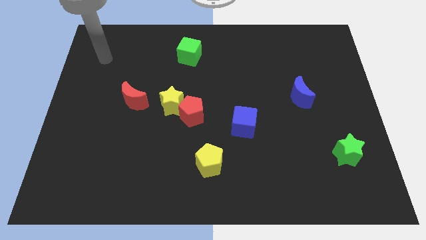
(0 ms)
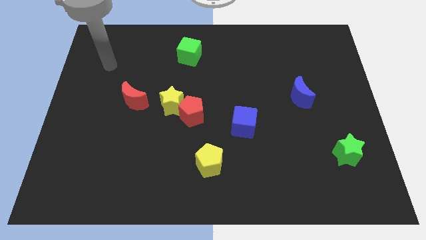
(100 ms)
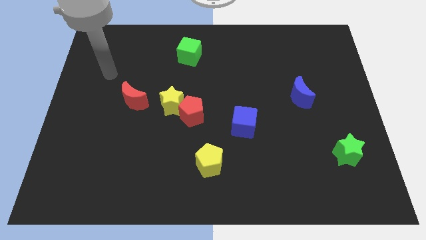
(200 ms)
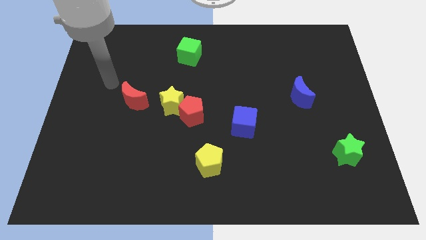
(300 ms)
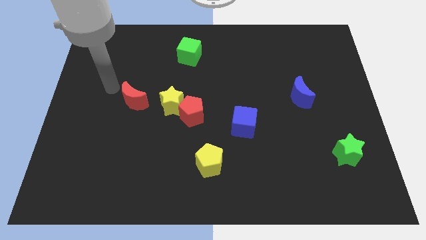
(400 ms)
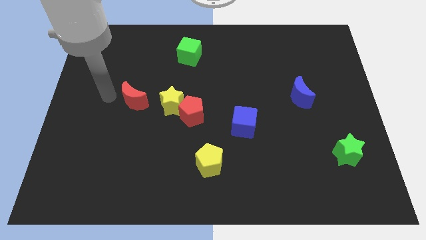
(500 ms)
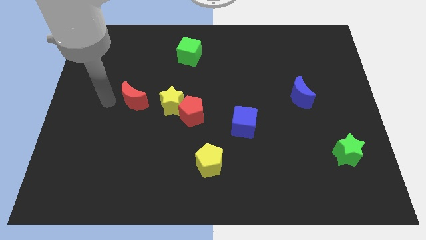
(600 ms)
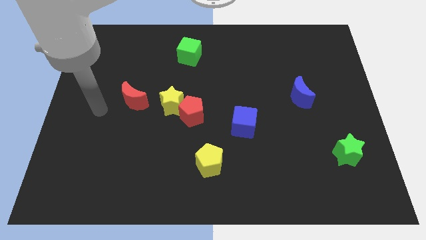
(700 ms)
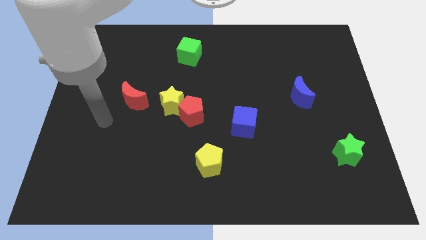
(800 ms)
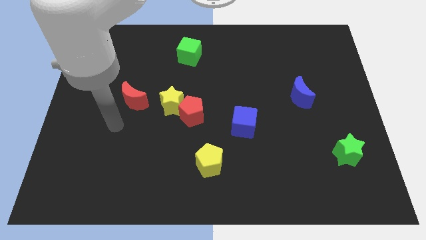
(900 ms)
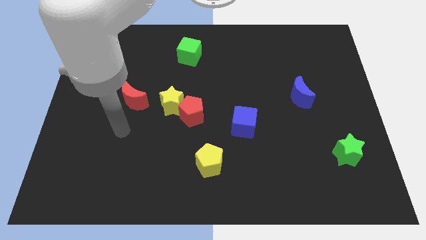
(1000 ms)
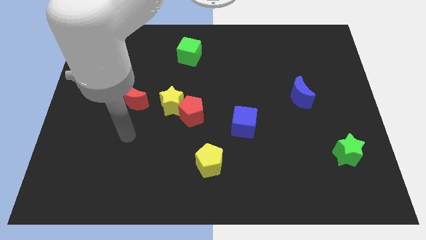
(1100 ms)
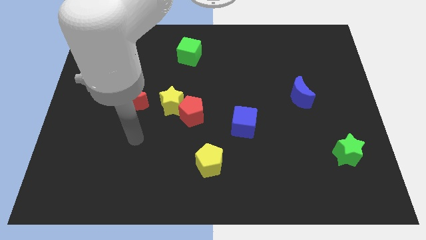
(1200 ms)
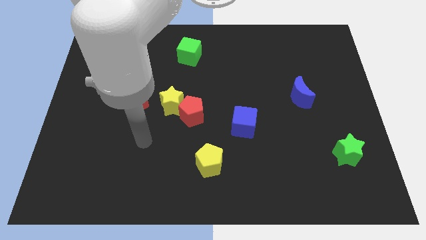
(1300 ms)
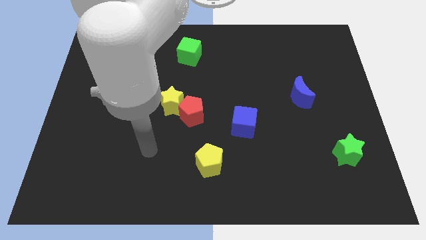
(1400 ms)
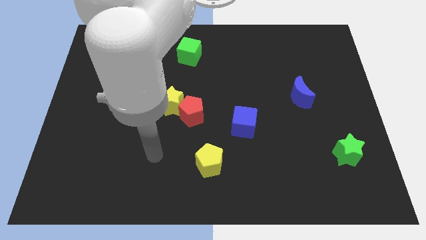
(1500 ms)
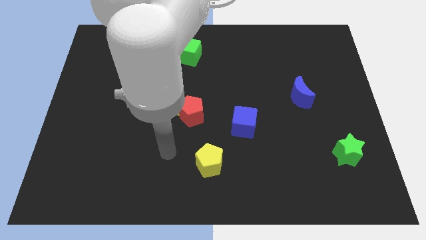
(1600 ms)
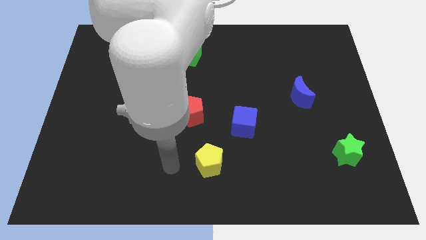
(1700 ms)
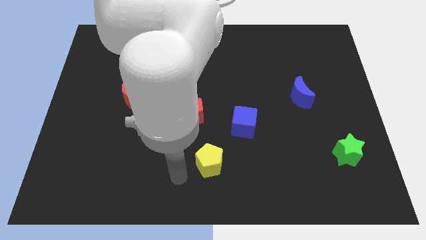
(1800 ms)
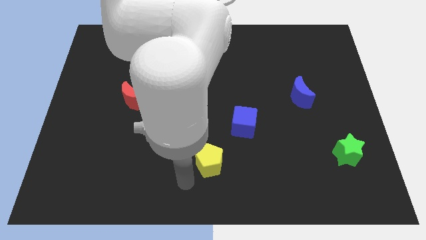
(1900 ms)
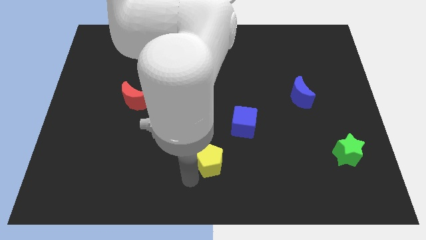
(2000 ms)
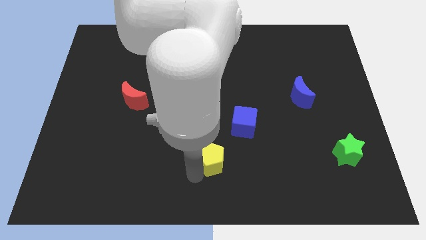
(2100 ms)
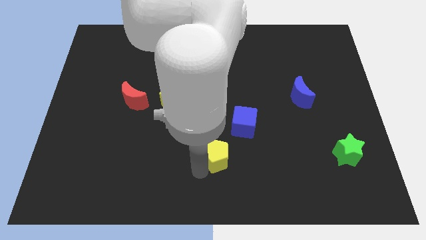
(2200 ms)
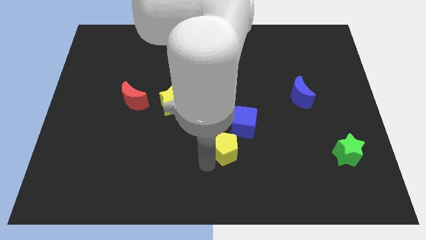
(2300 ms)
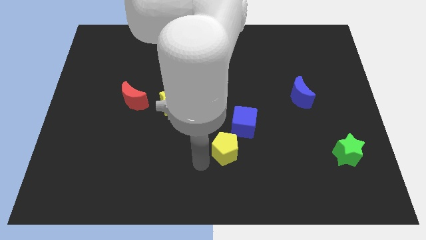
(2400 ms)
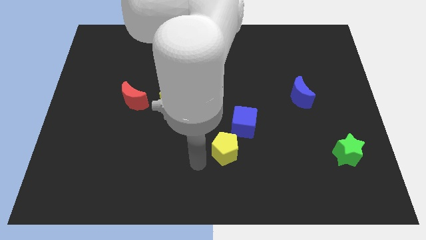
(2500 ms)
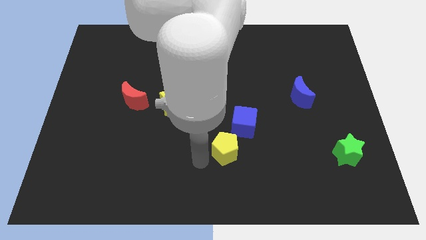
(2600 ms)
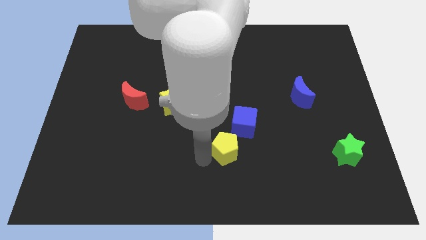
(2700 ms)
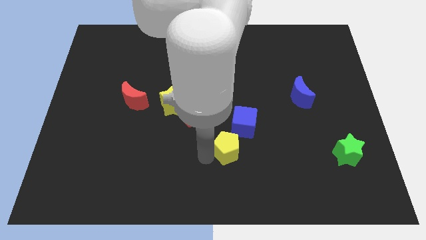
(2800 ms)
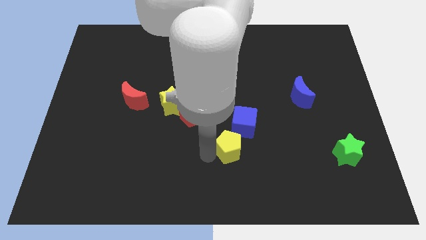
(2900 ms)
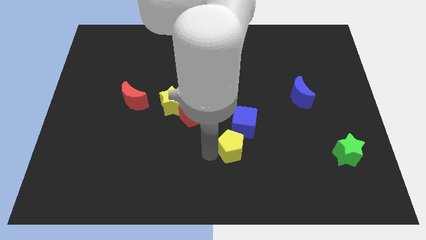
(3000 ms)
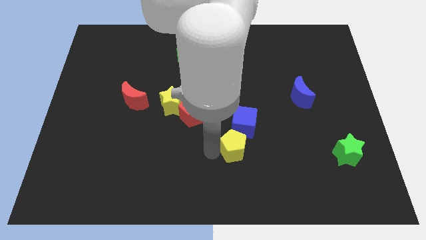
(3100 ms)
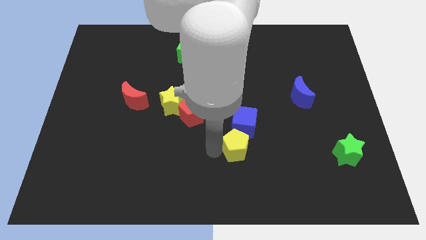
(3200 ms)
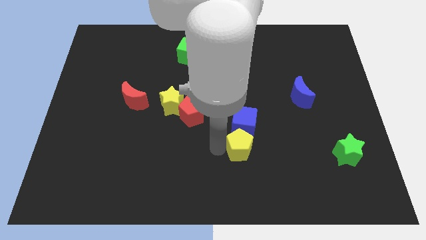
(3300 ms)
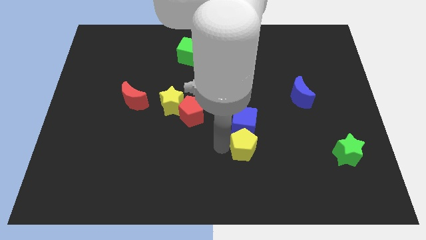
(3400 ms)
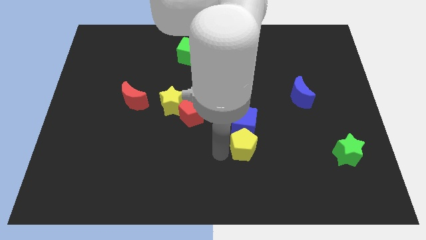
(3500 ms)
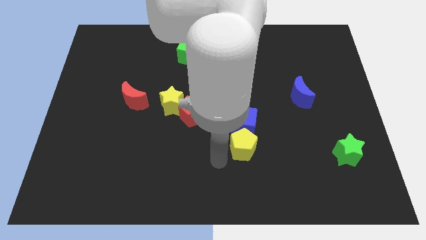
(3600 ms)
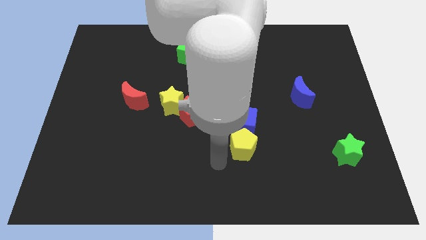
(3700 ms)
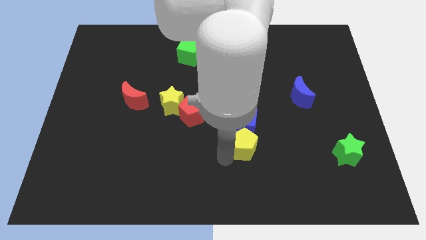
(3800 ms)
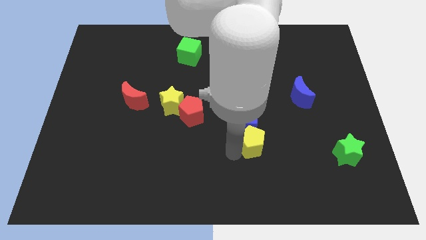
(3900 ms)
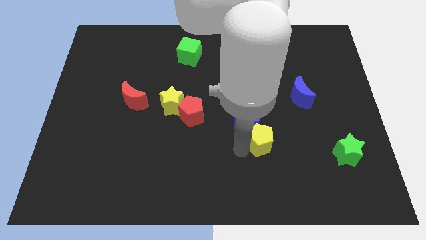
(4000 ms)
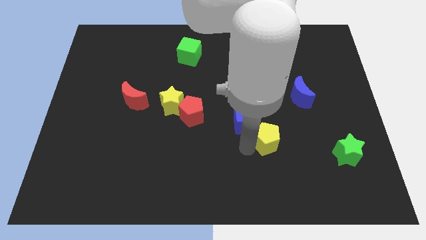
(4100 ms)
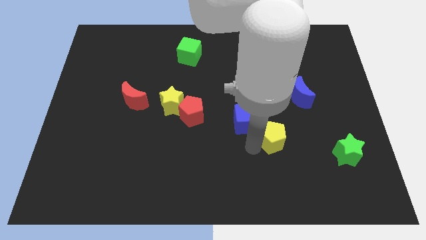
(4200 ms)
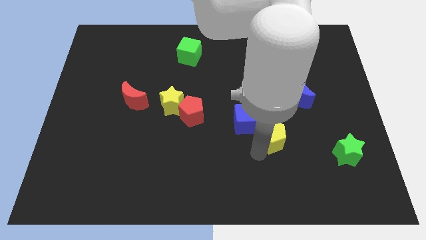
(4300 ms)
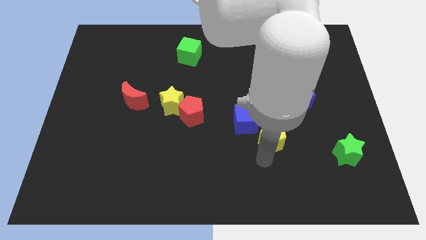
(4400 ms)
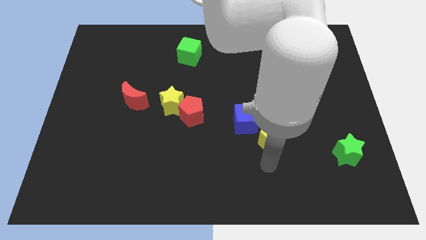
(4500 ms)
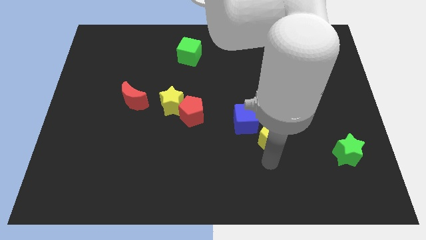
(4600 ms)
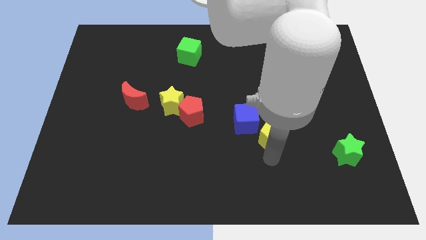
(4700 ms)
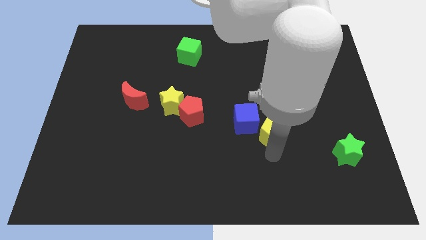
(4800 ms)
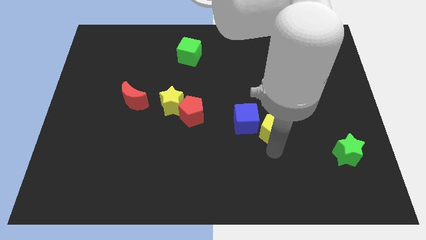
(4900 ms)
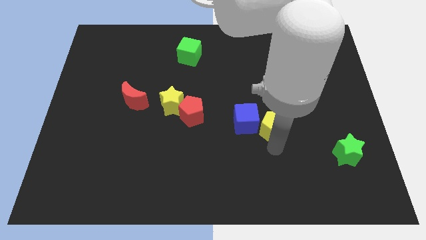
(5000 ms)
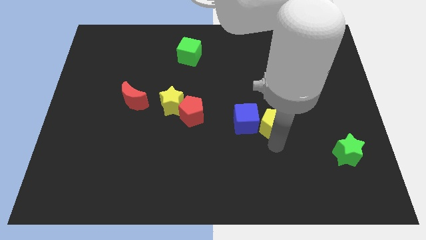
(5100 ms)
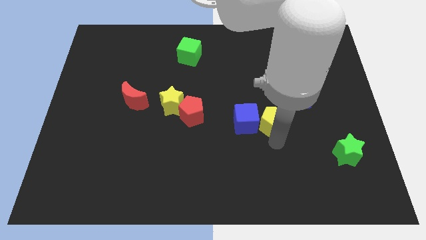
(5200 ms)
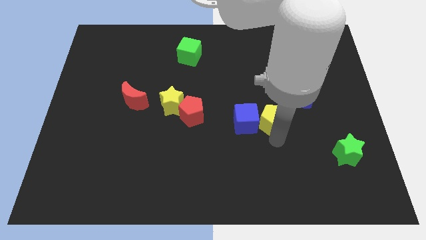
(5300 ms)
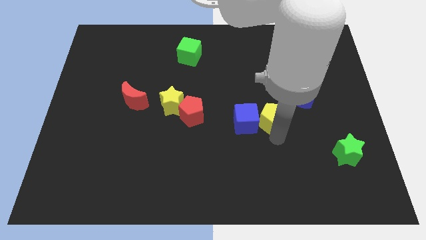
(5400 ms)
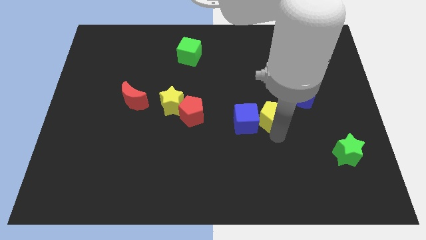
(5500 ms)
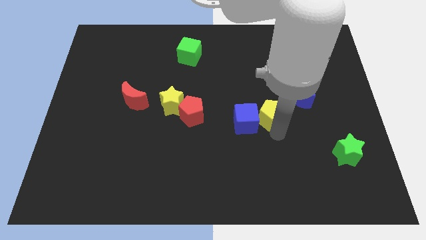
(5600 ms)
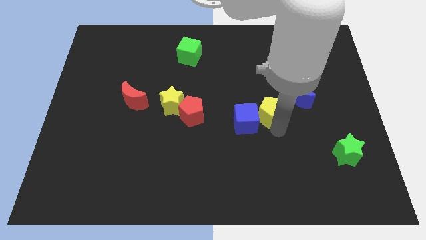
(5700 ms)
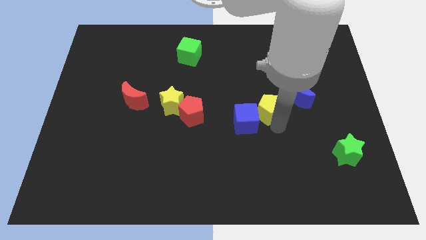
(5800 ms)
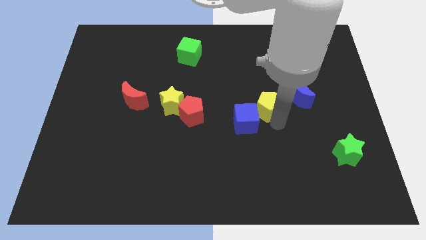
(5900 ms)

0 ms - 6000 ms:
push the yellow pentagon up and then to the right

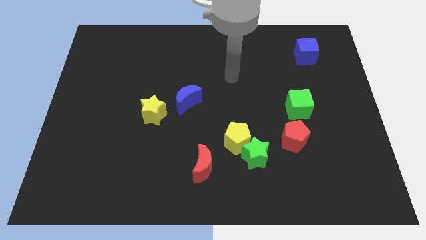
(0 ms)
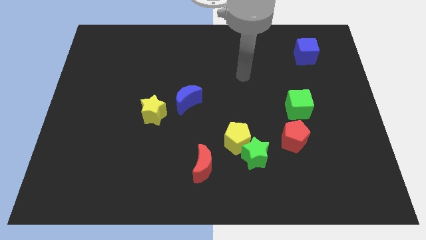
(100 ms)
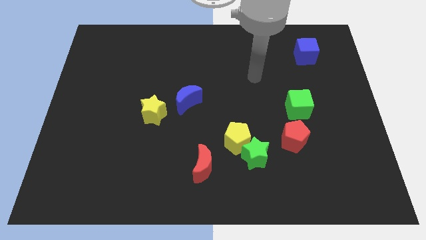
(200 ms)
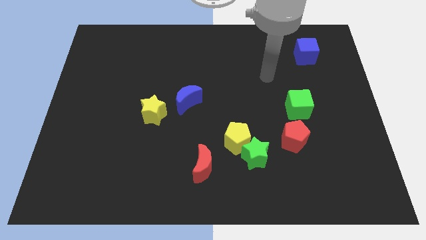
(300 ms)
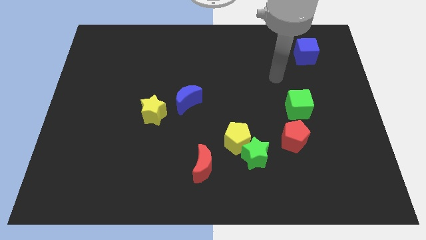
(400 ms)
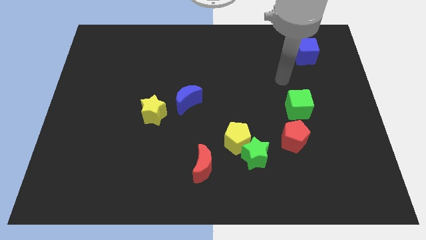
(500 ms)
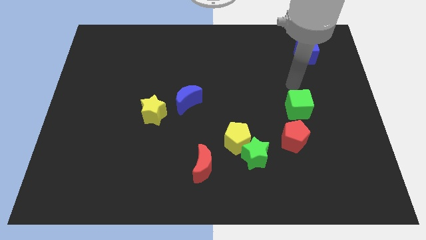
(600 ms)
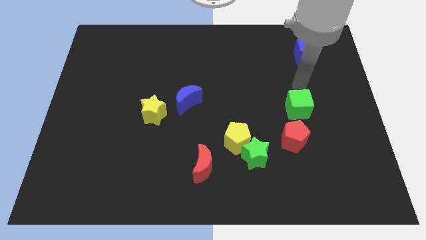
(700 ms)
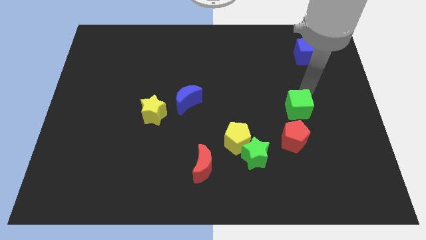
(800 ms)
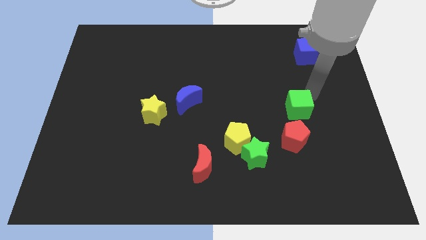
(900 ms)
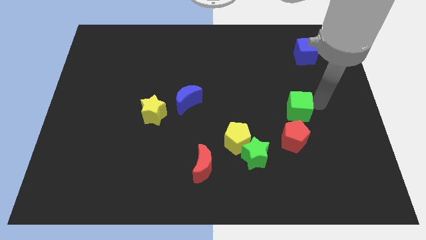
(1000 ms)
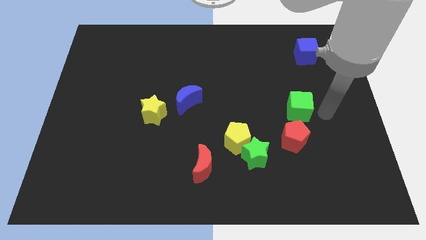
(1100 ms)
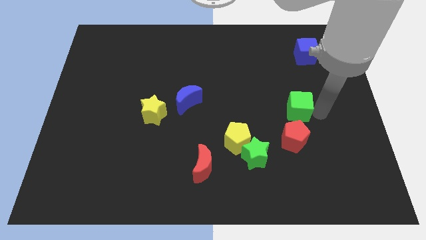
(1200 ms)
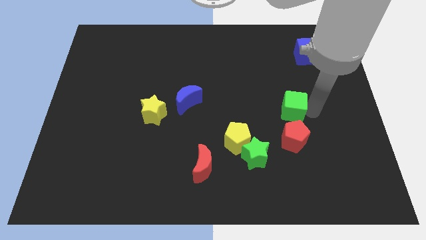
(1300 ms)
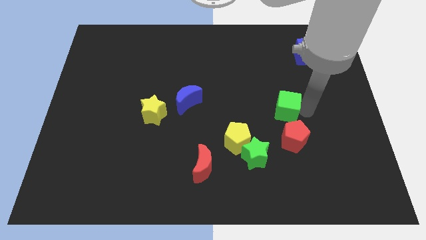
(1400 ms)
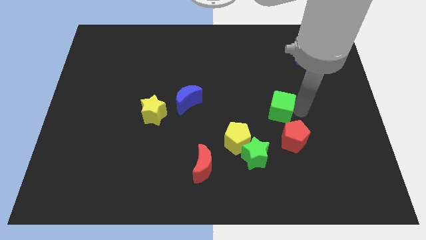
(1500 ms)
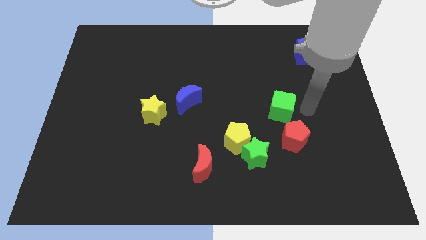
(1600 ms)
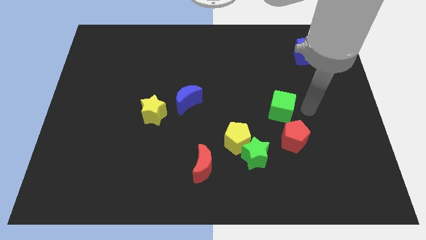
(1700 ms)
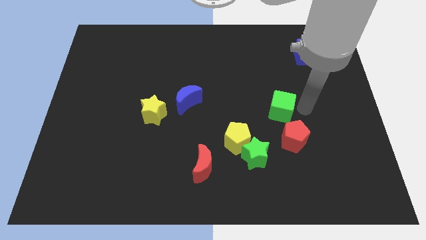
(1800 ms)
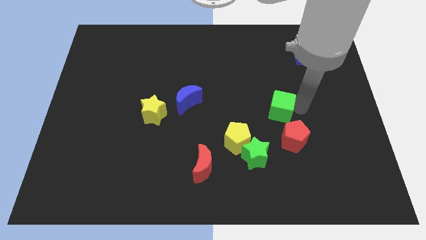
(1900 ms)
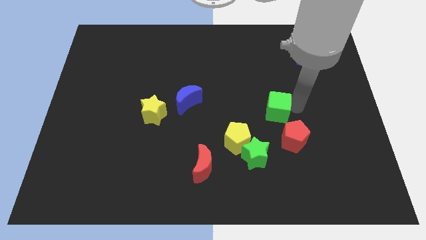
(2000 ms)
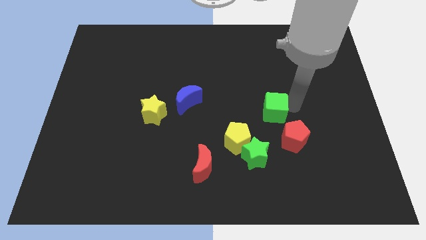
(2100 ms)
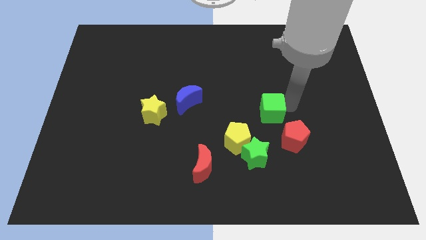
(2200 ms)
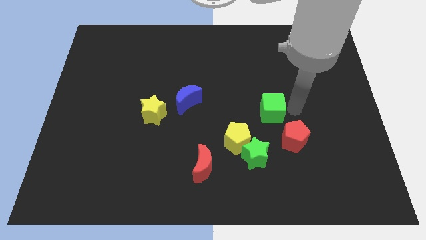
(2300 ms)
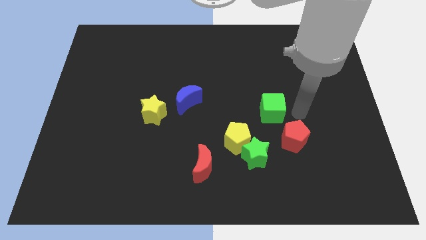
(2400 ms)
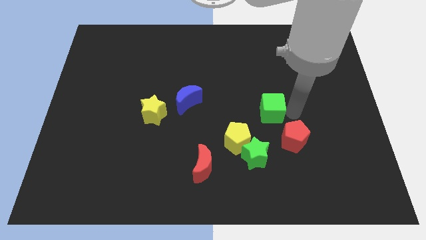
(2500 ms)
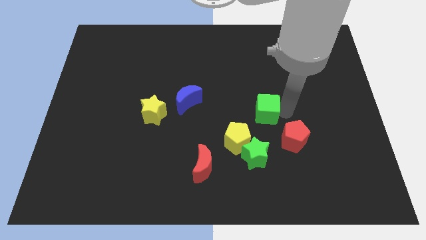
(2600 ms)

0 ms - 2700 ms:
slightly push the green cube to the left
